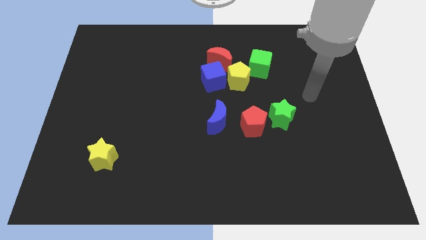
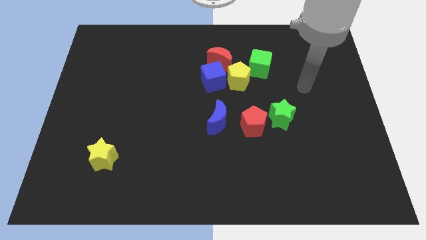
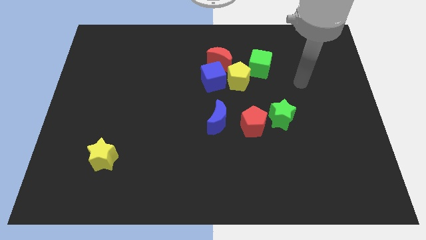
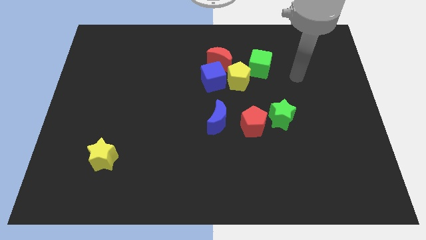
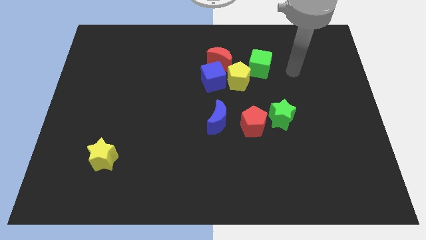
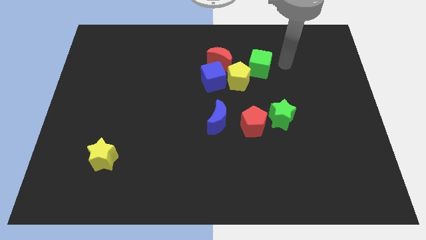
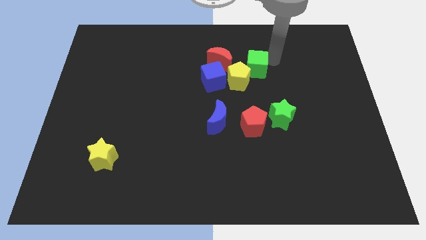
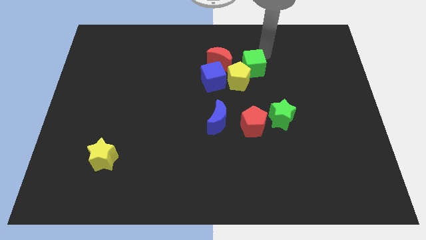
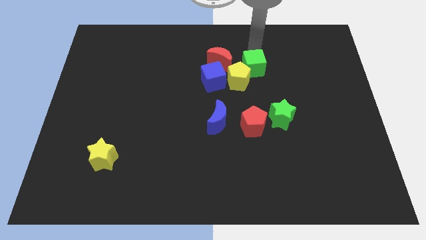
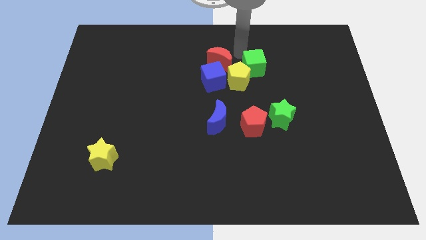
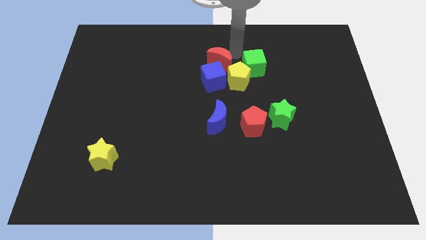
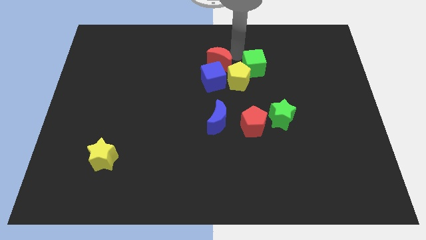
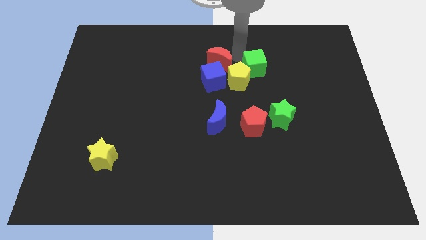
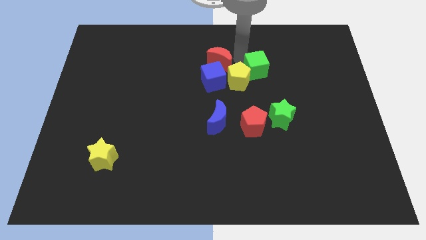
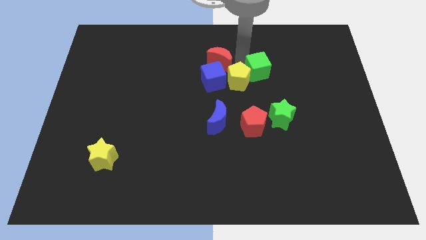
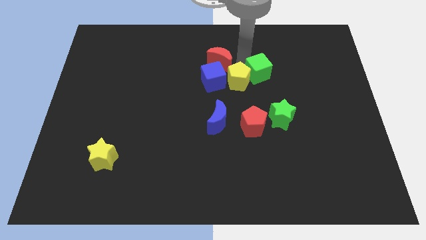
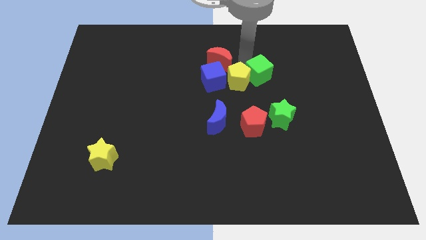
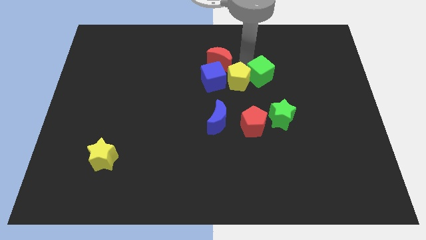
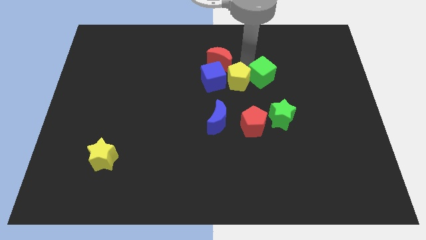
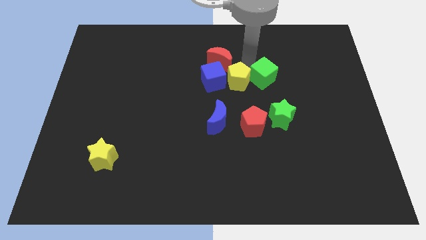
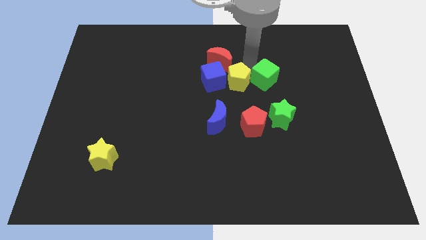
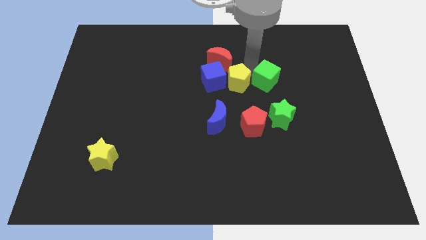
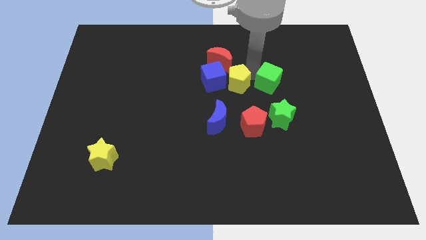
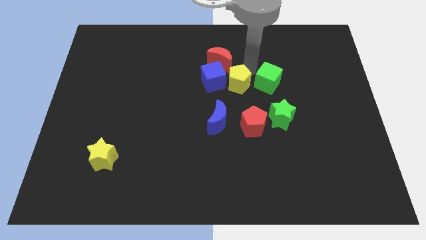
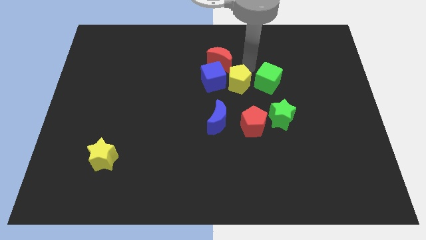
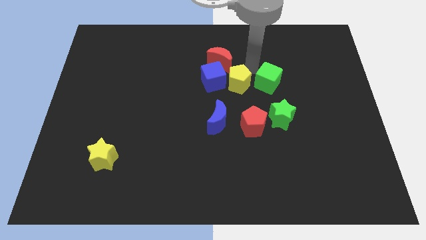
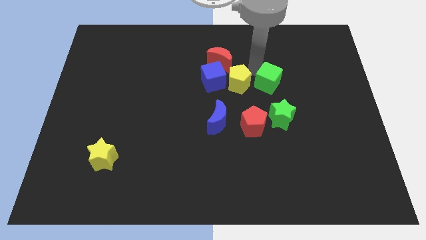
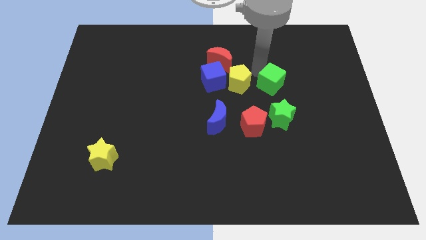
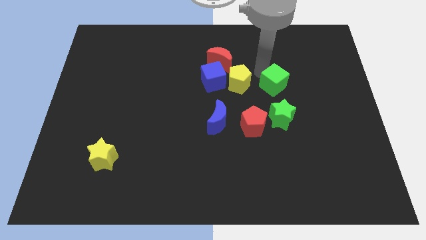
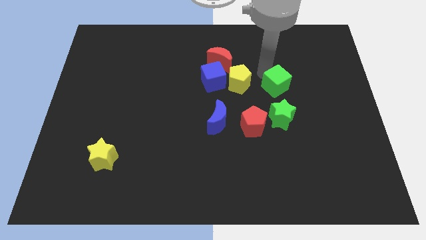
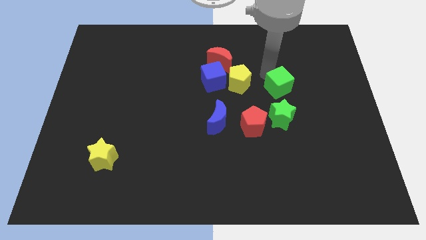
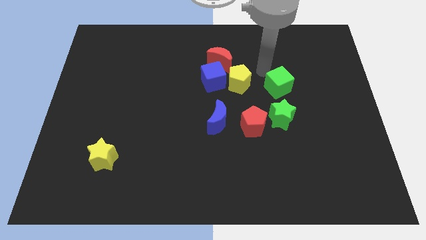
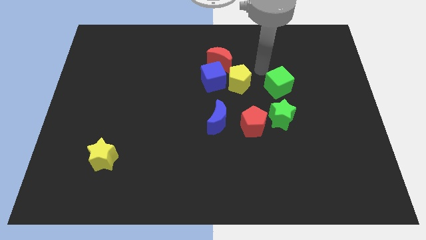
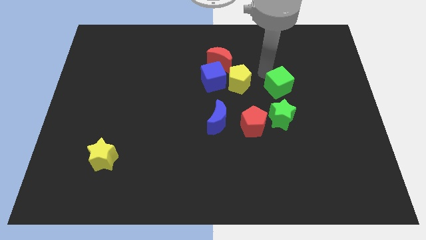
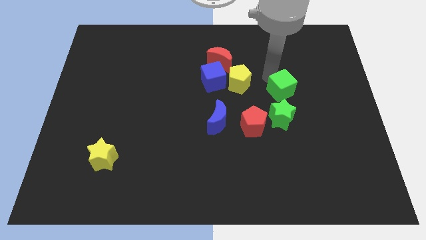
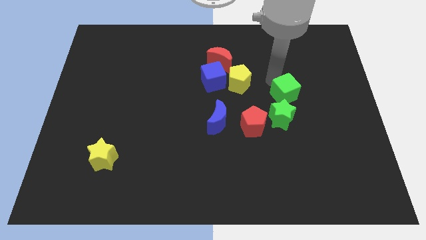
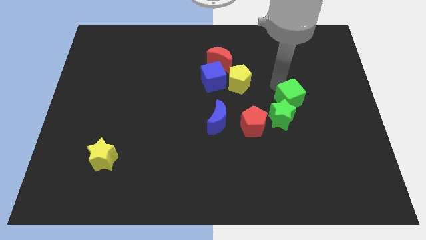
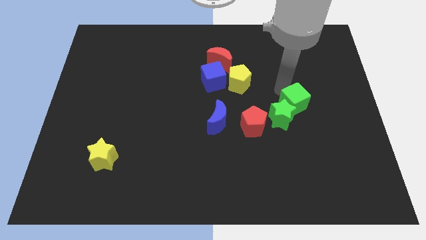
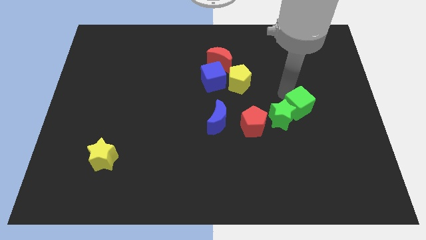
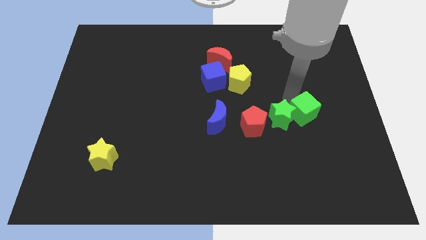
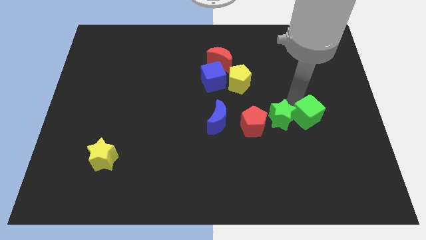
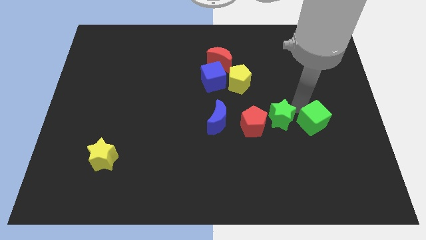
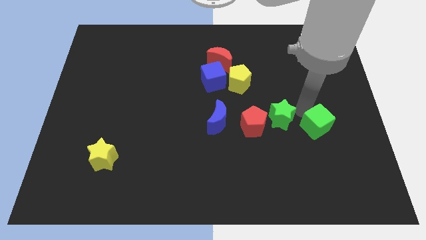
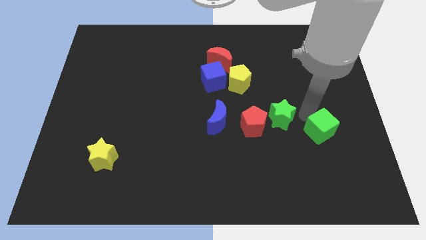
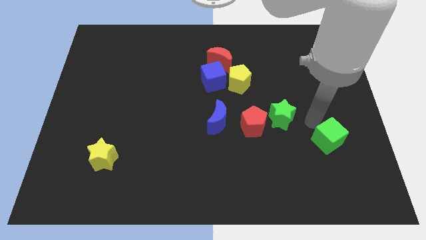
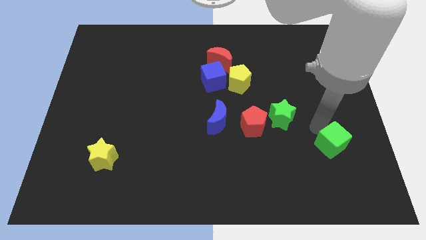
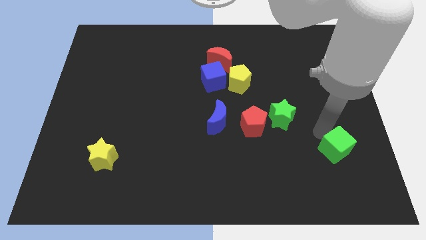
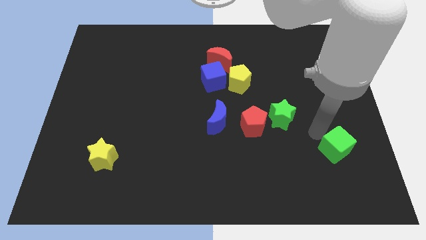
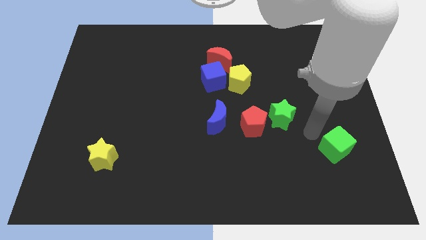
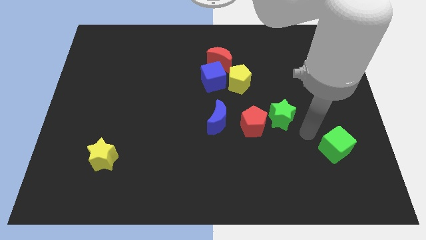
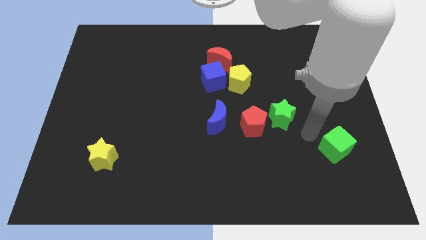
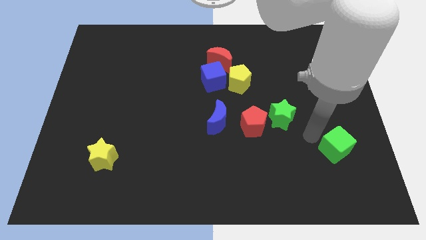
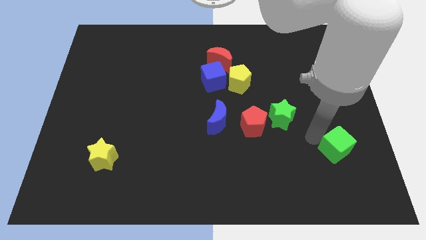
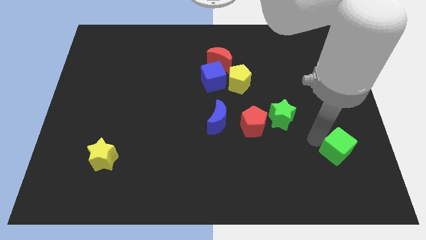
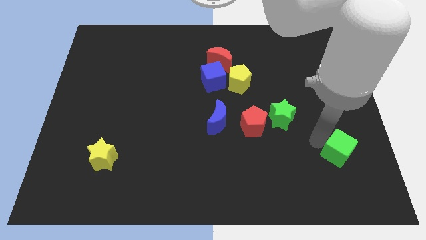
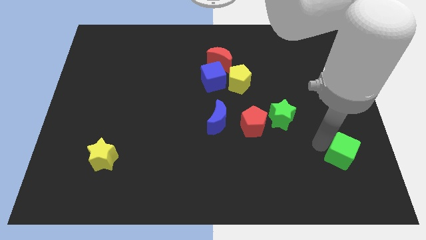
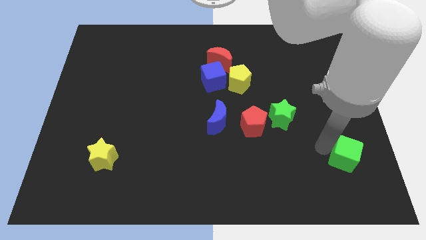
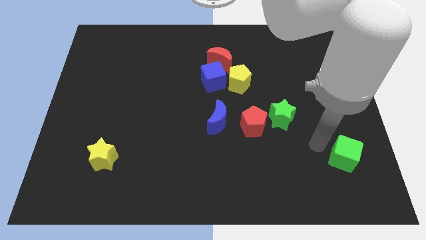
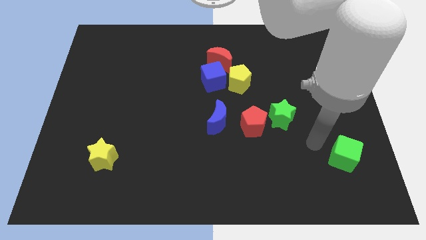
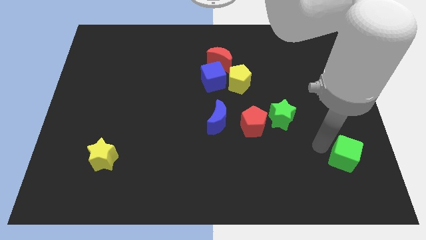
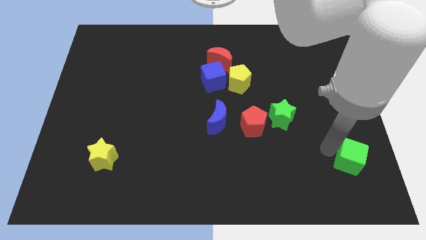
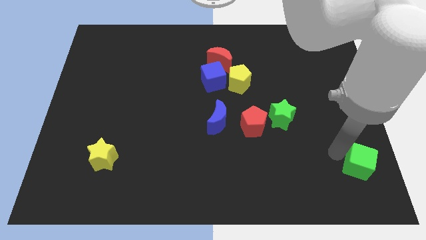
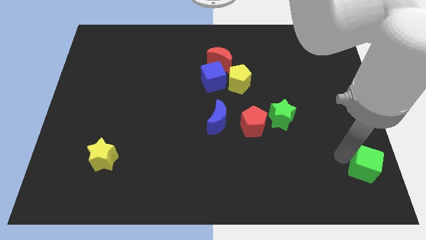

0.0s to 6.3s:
move the green cube to the lower right corner

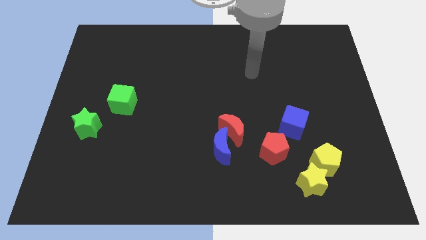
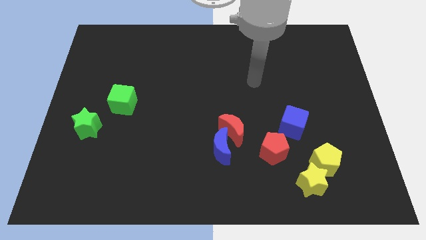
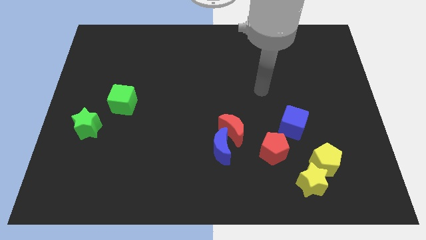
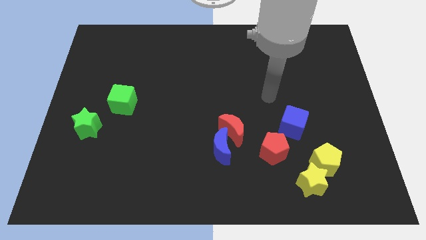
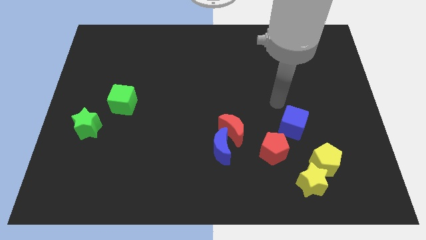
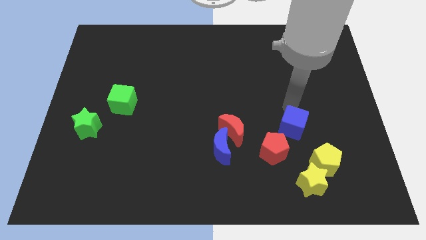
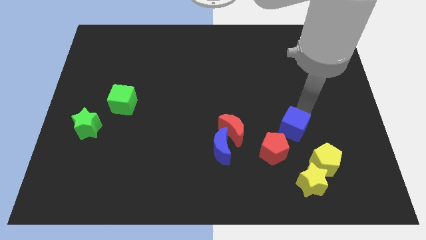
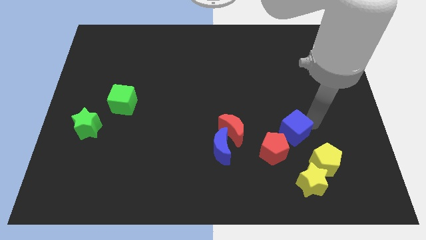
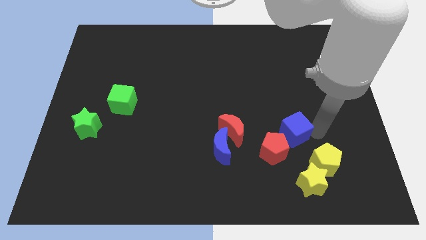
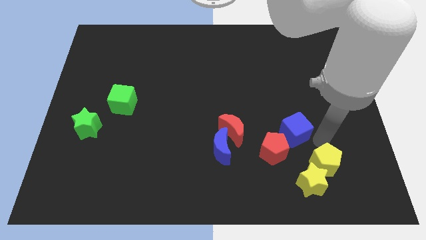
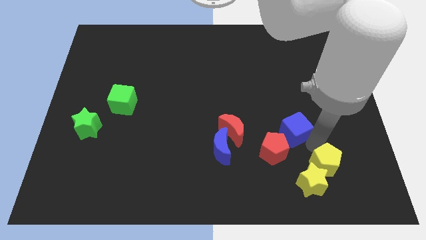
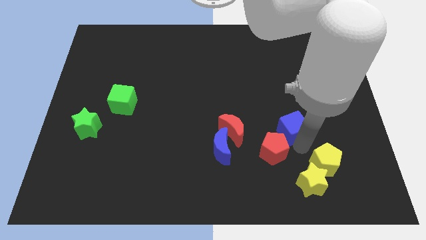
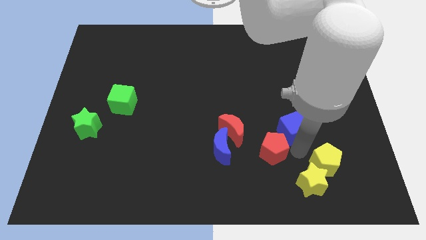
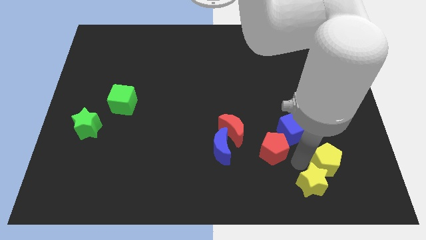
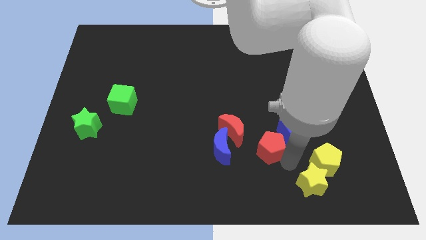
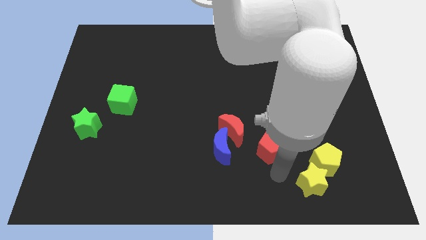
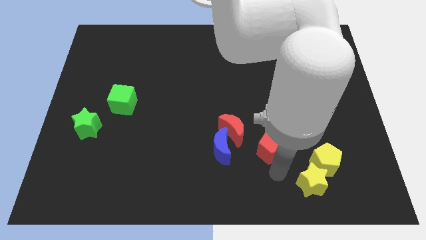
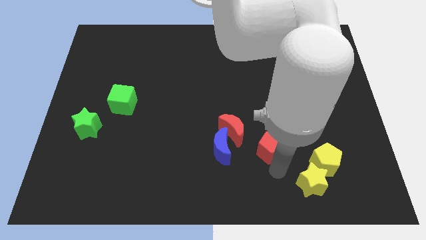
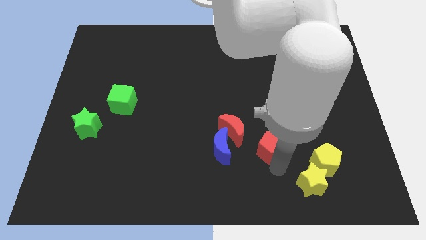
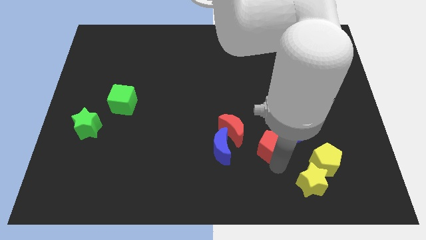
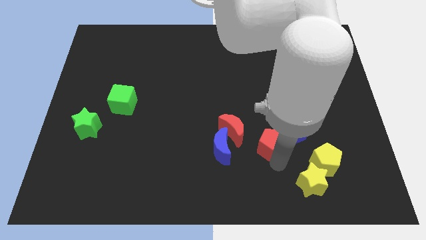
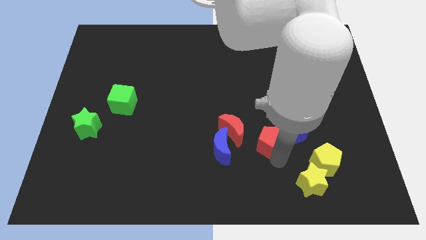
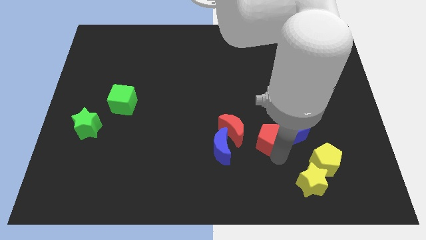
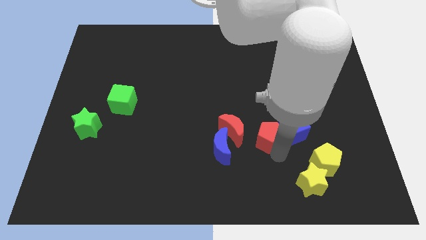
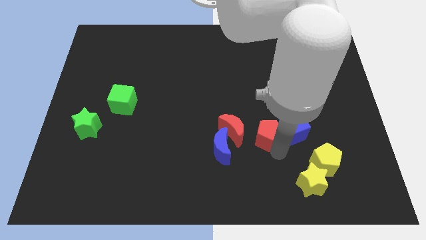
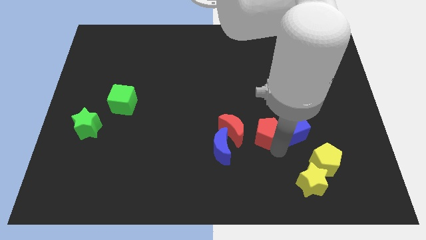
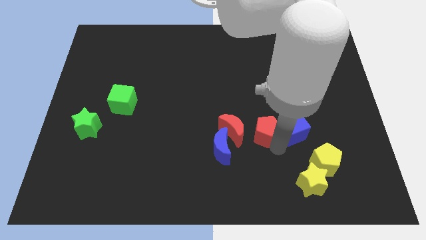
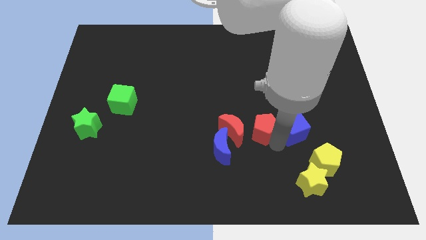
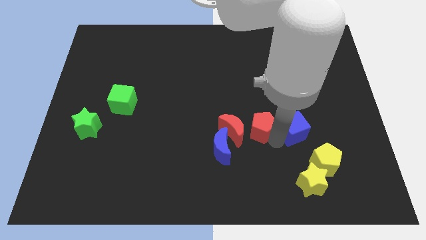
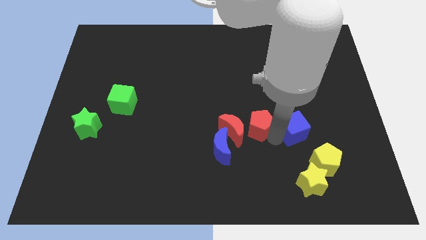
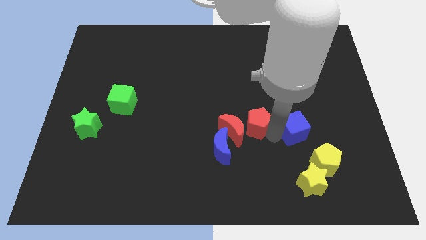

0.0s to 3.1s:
put the red pentagon to the center
